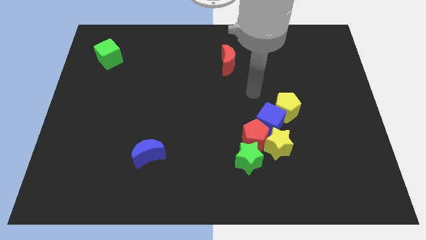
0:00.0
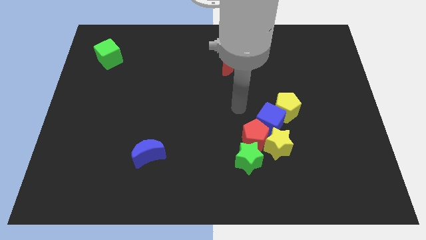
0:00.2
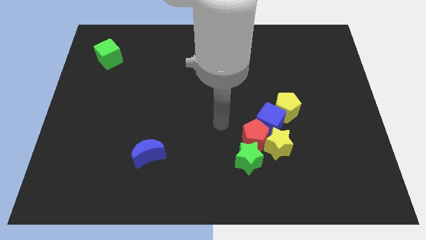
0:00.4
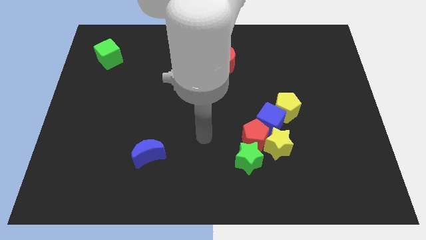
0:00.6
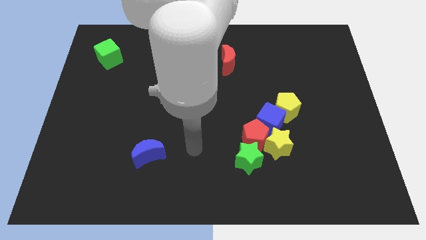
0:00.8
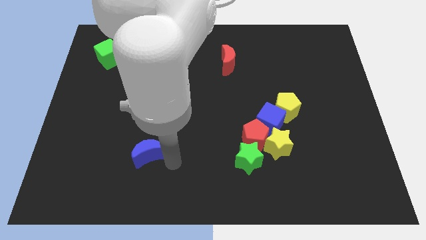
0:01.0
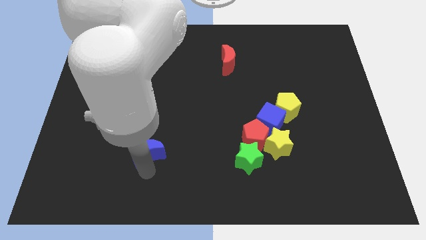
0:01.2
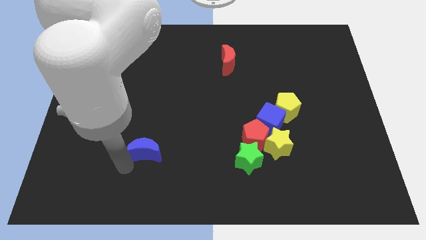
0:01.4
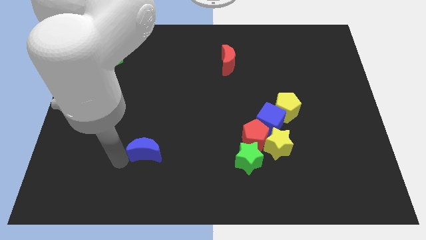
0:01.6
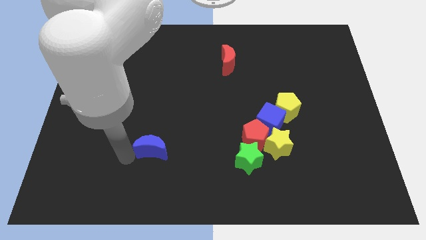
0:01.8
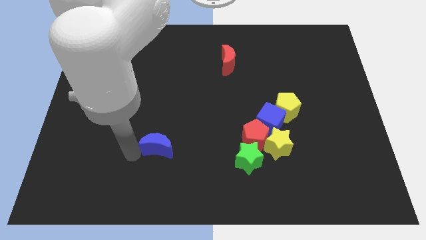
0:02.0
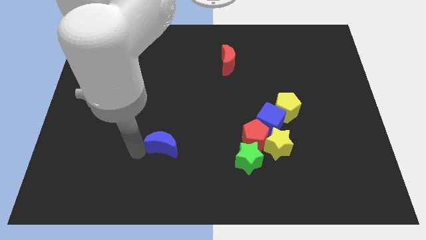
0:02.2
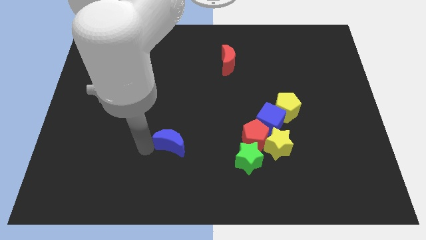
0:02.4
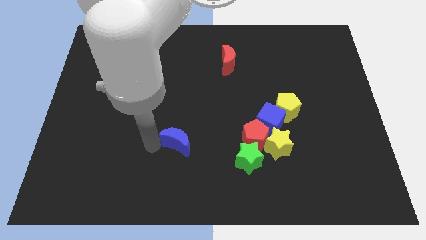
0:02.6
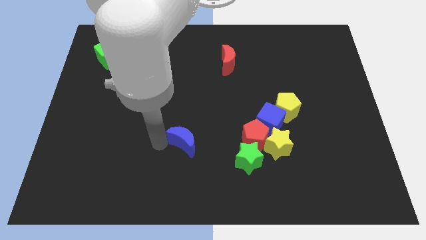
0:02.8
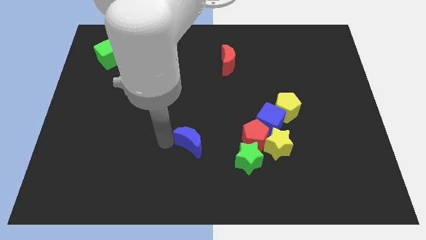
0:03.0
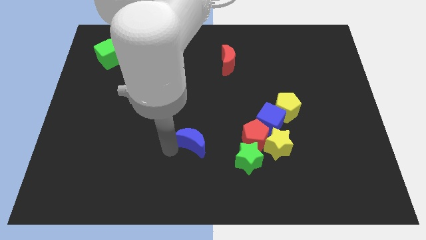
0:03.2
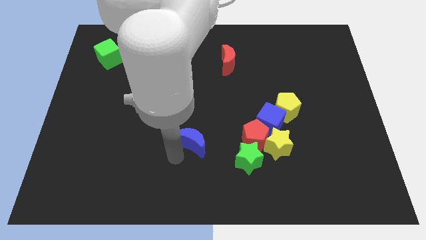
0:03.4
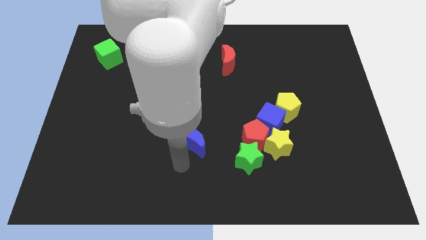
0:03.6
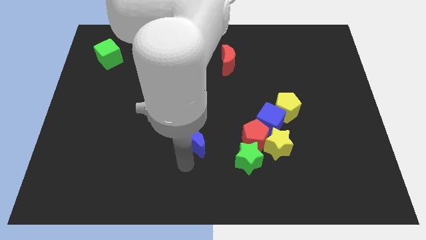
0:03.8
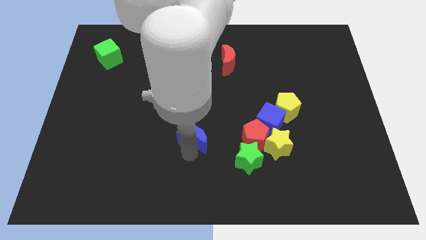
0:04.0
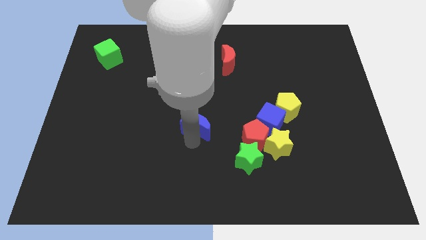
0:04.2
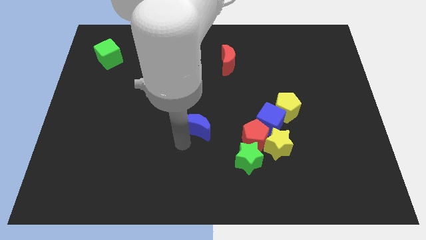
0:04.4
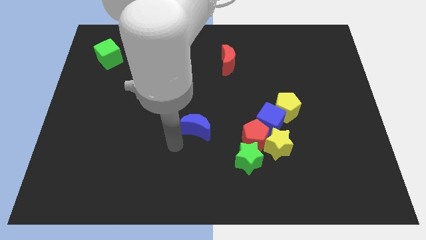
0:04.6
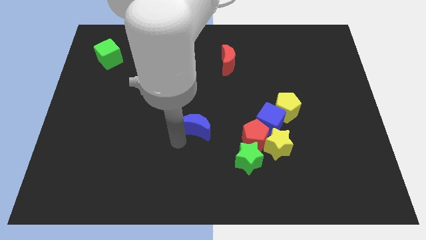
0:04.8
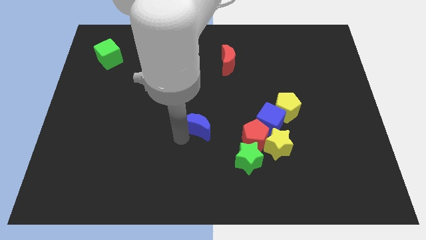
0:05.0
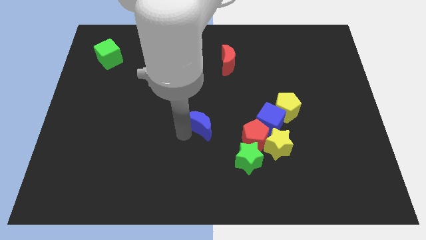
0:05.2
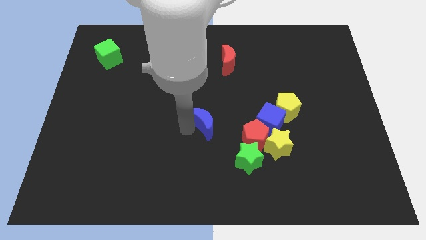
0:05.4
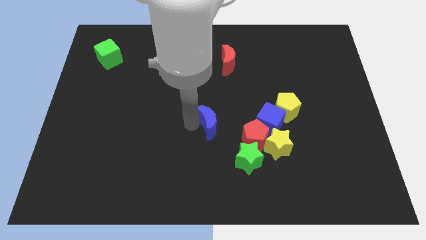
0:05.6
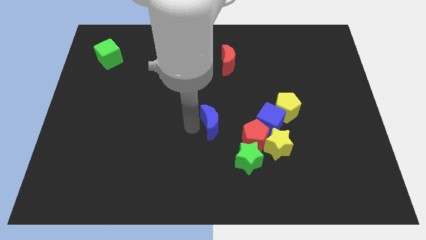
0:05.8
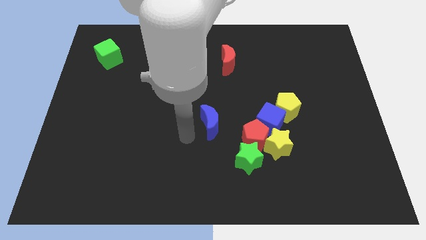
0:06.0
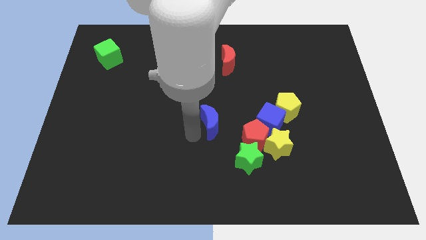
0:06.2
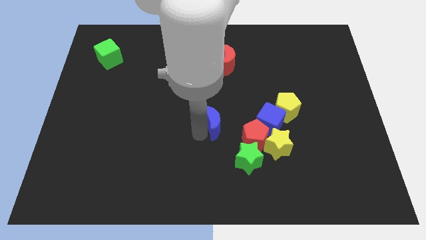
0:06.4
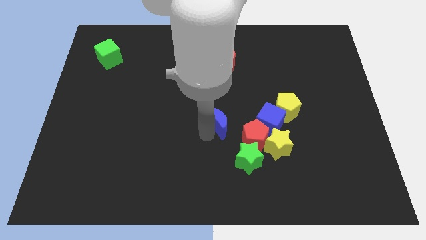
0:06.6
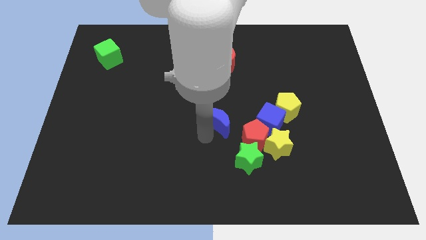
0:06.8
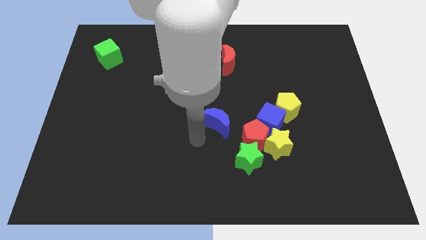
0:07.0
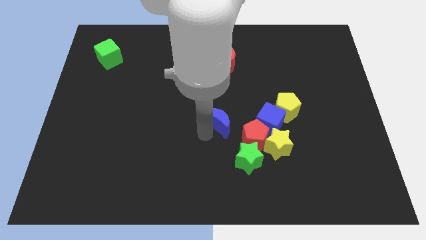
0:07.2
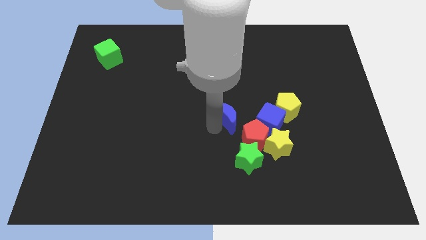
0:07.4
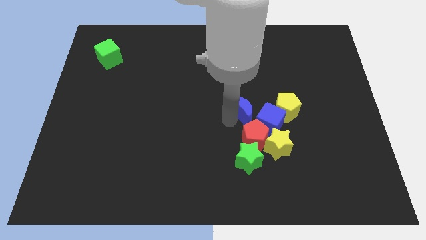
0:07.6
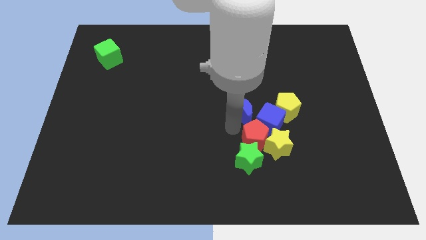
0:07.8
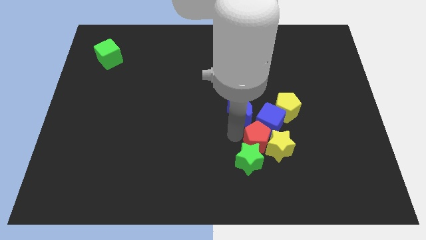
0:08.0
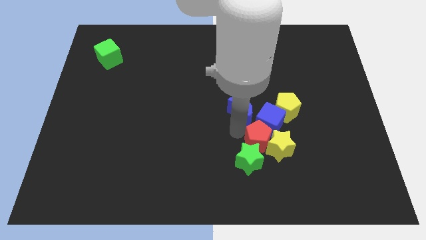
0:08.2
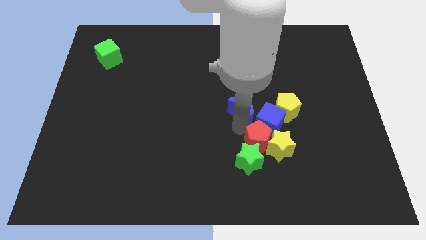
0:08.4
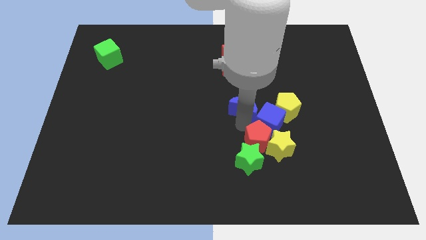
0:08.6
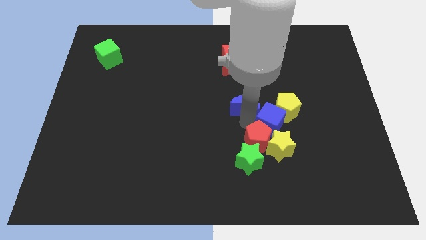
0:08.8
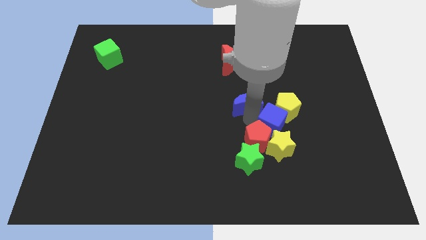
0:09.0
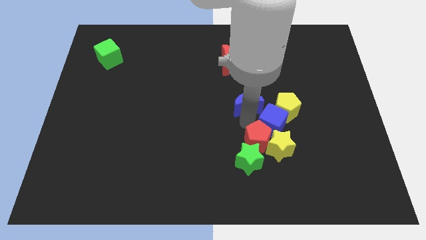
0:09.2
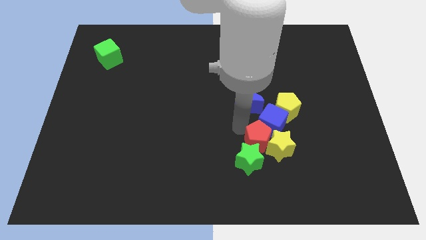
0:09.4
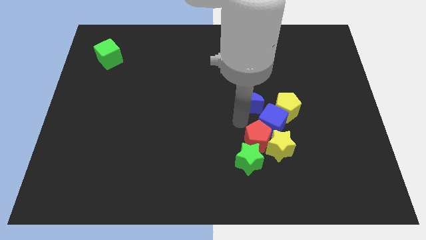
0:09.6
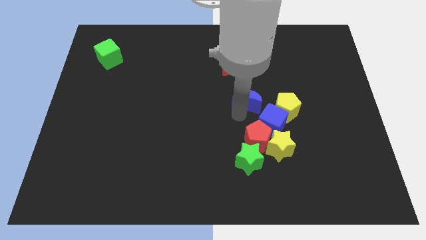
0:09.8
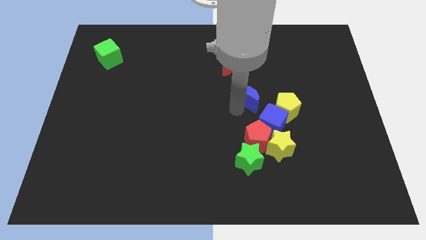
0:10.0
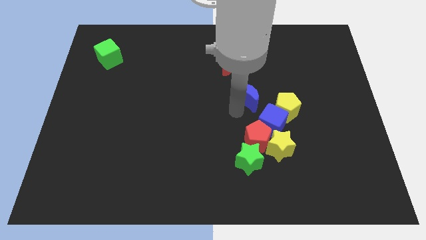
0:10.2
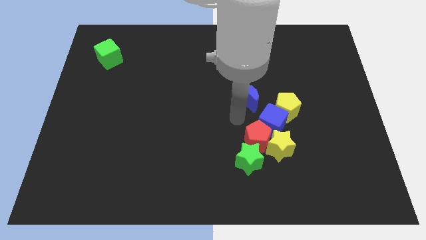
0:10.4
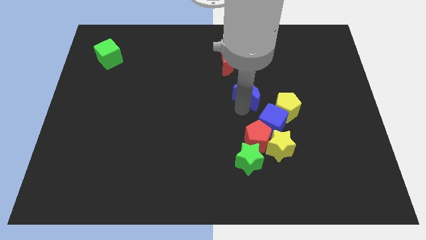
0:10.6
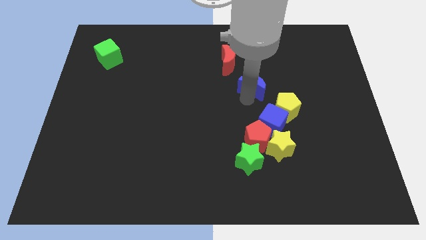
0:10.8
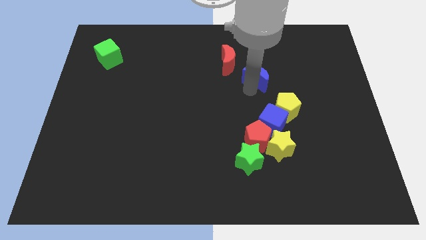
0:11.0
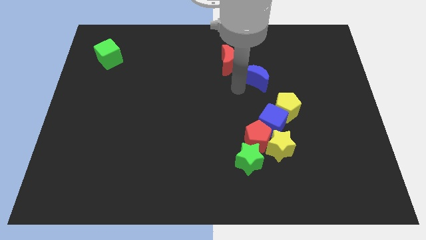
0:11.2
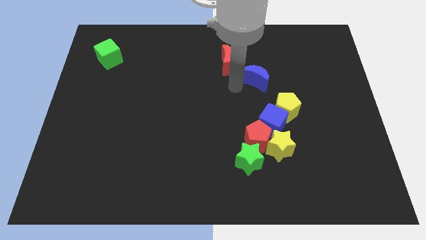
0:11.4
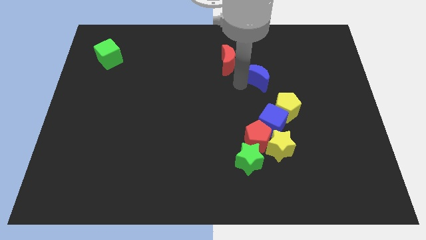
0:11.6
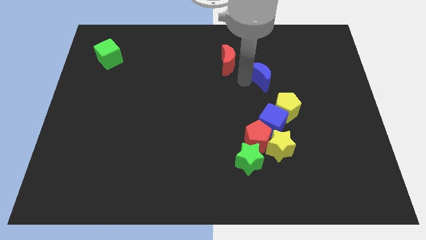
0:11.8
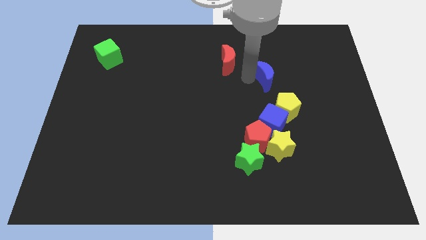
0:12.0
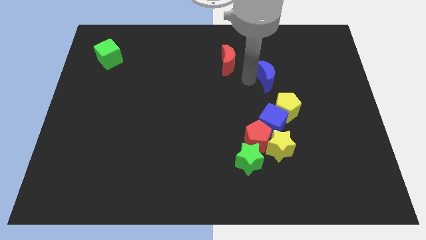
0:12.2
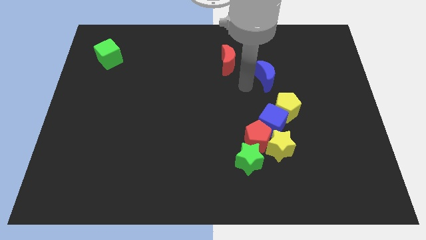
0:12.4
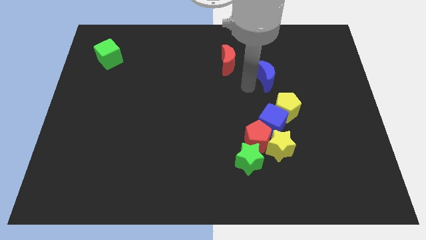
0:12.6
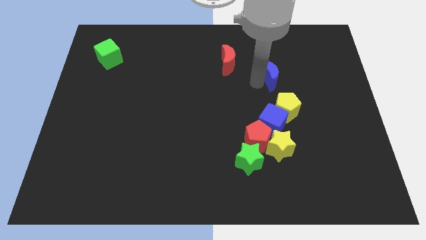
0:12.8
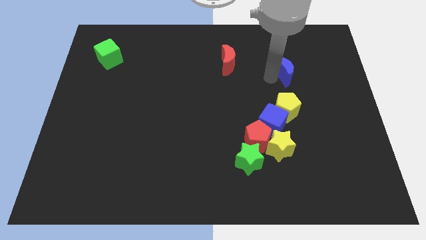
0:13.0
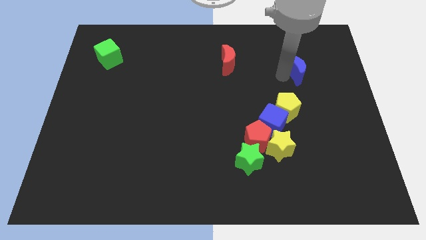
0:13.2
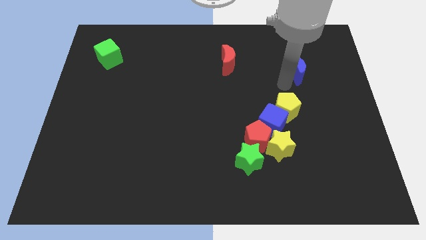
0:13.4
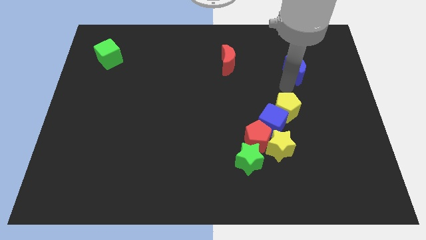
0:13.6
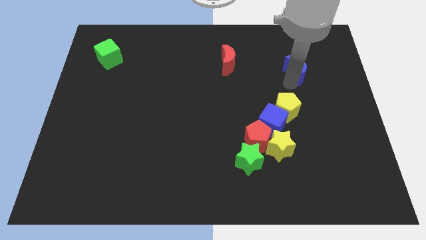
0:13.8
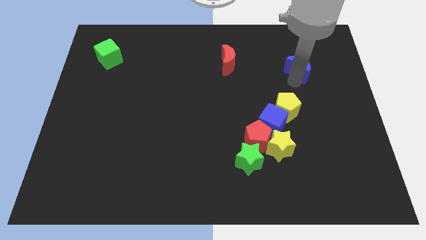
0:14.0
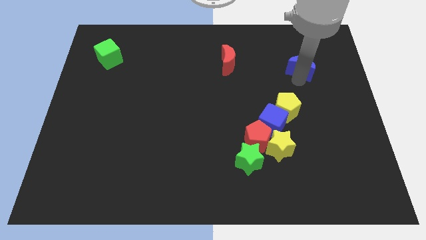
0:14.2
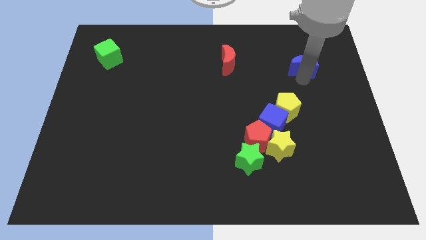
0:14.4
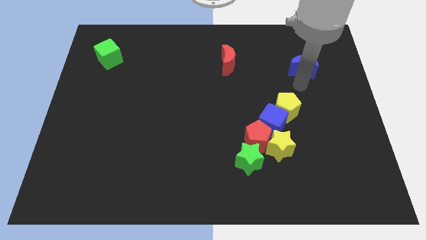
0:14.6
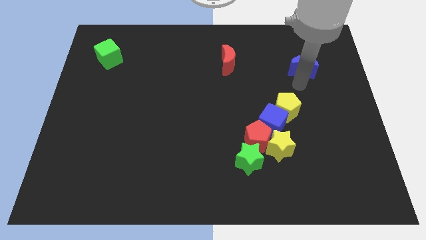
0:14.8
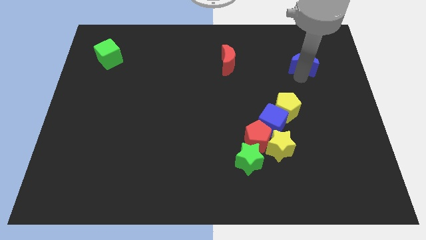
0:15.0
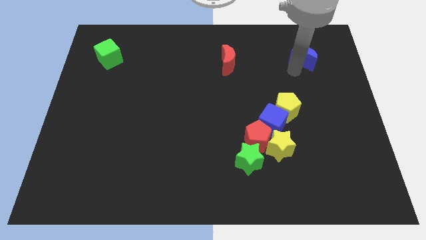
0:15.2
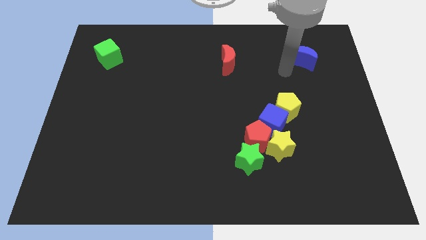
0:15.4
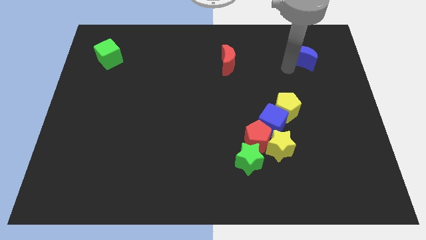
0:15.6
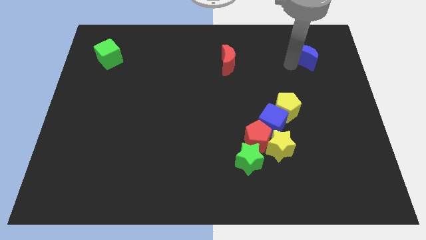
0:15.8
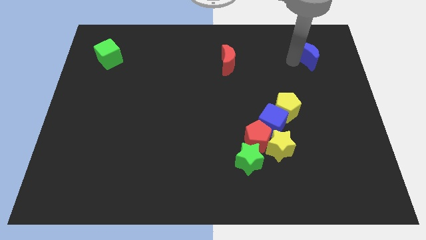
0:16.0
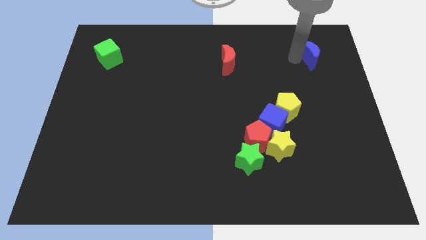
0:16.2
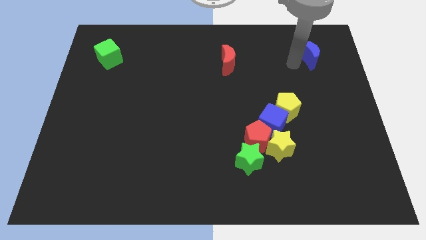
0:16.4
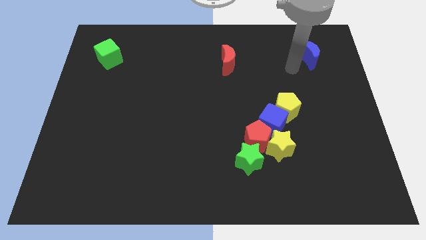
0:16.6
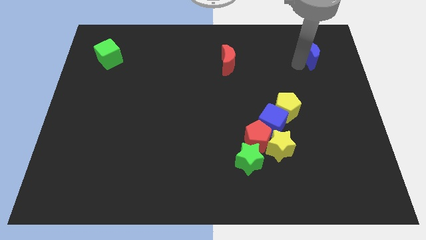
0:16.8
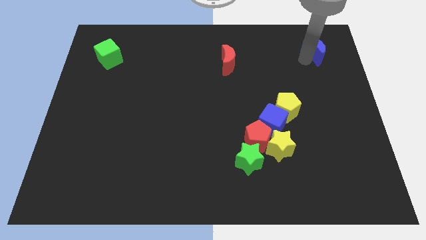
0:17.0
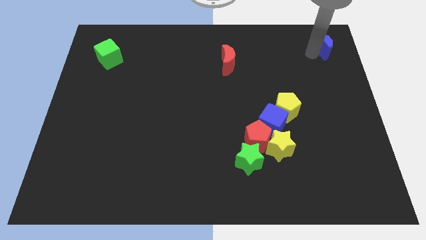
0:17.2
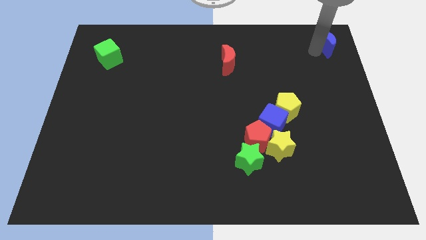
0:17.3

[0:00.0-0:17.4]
push the blue moon to the top right of the board
